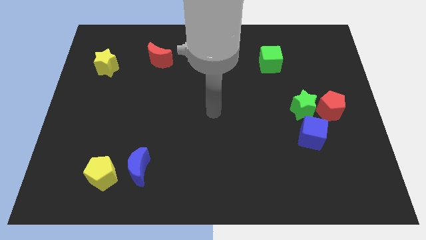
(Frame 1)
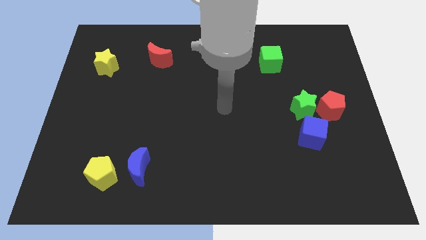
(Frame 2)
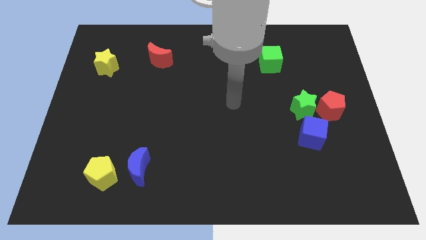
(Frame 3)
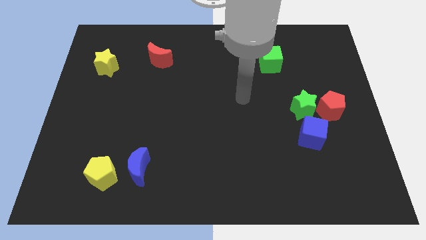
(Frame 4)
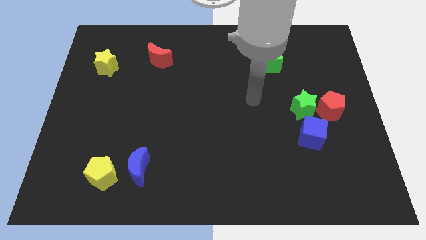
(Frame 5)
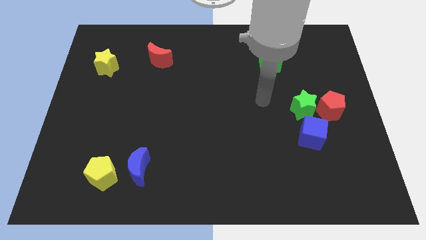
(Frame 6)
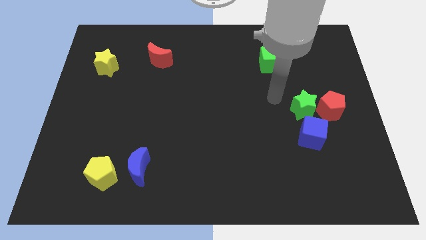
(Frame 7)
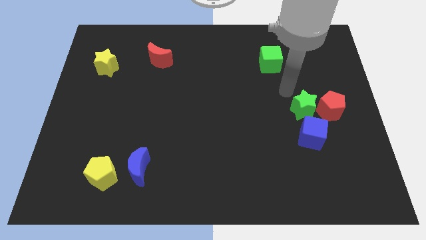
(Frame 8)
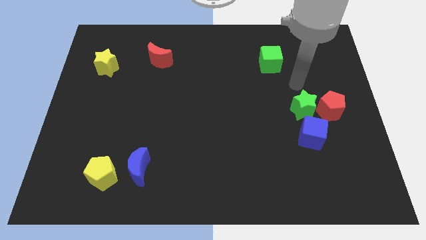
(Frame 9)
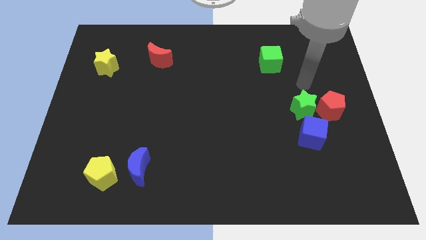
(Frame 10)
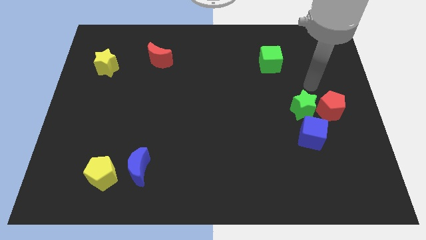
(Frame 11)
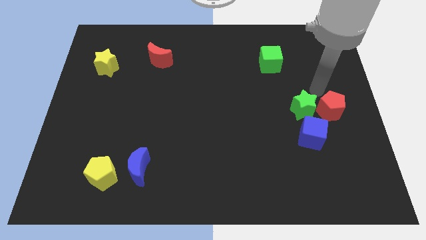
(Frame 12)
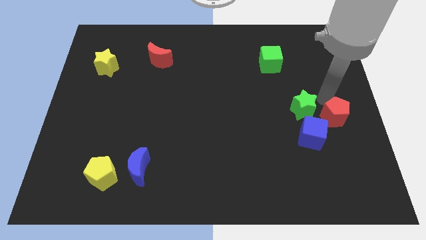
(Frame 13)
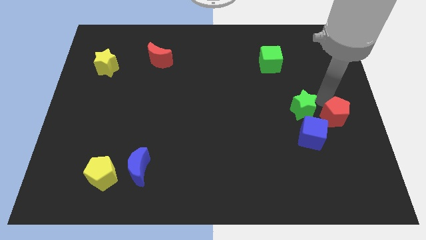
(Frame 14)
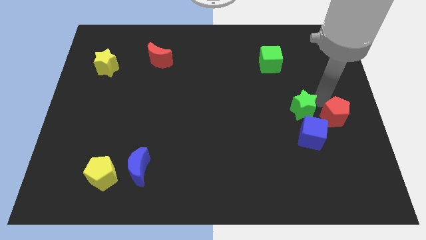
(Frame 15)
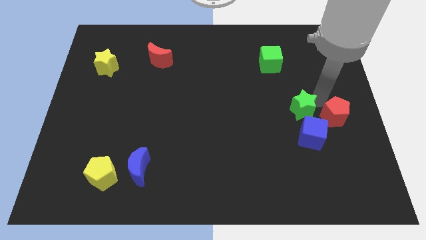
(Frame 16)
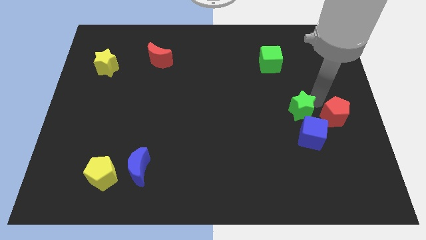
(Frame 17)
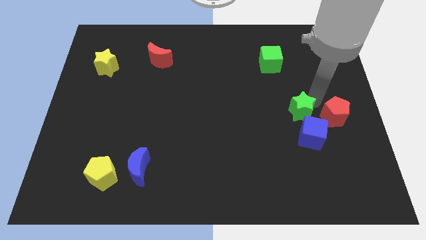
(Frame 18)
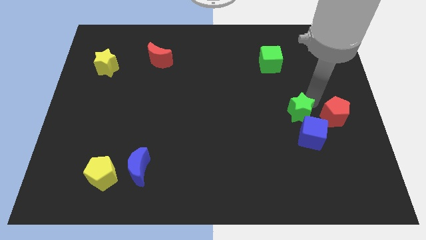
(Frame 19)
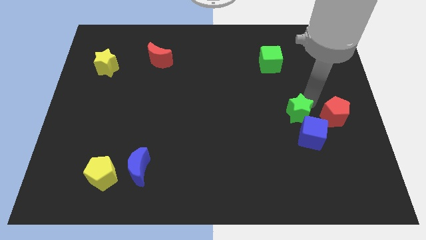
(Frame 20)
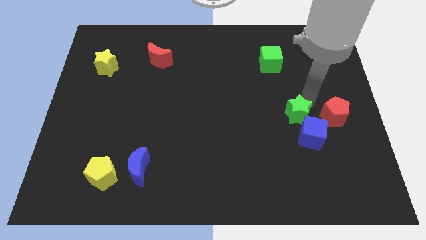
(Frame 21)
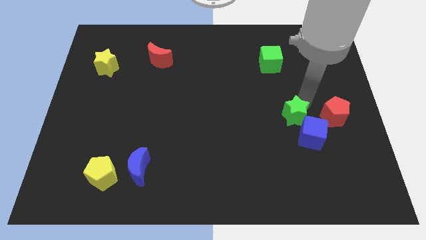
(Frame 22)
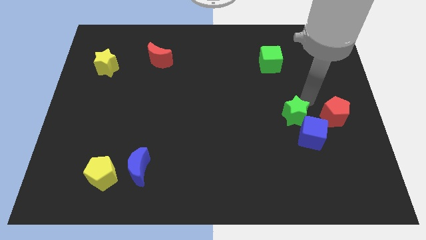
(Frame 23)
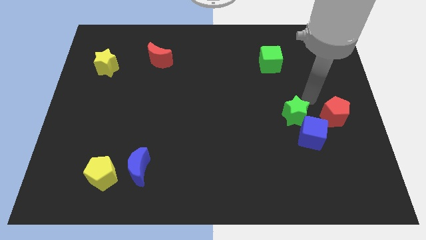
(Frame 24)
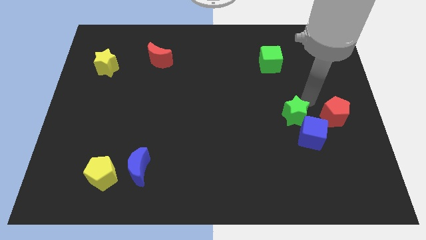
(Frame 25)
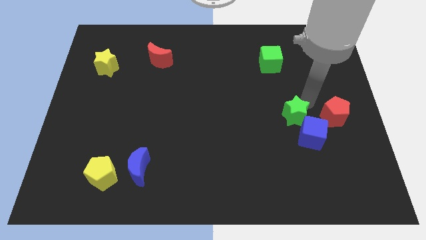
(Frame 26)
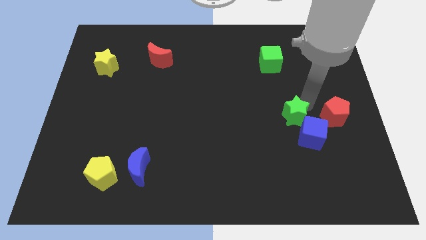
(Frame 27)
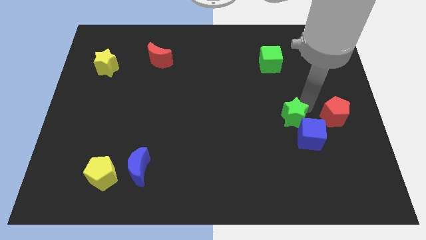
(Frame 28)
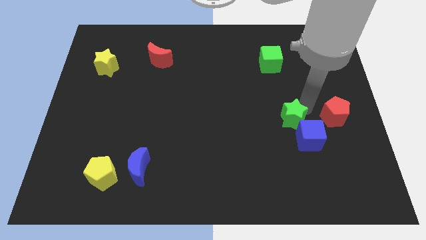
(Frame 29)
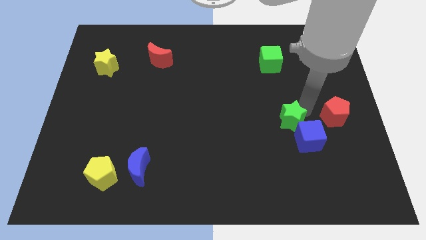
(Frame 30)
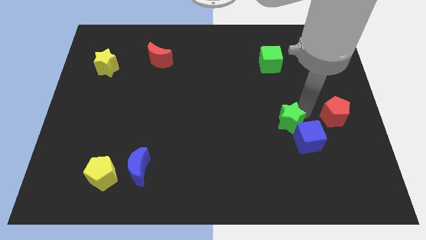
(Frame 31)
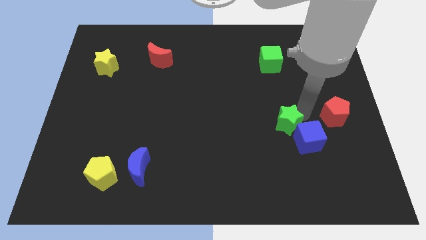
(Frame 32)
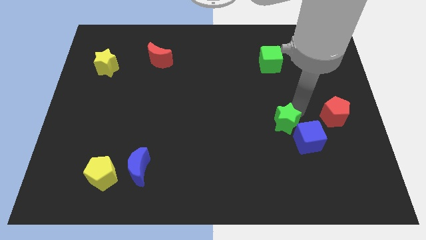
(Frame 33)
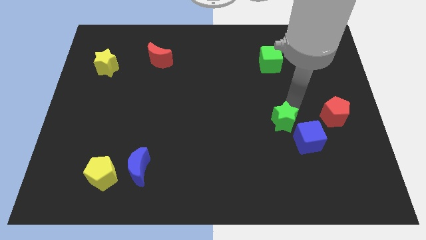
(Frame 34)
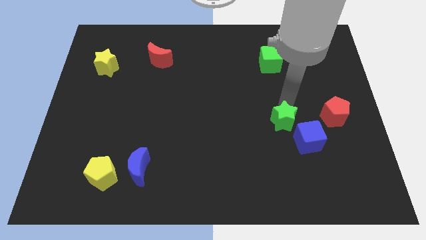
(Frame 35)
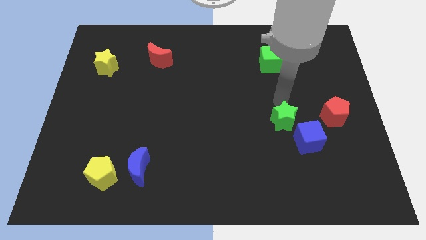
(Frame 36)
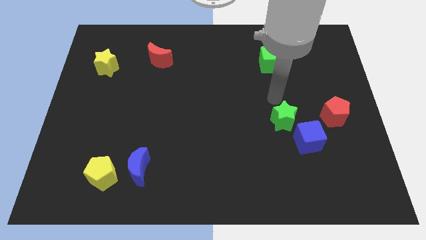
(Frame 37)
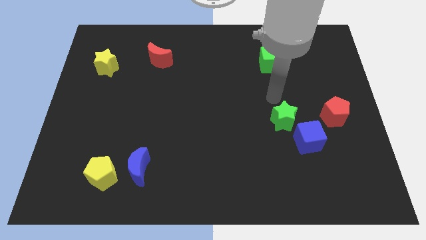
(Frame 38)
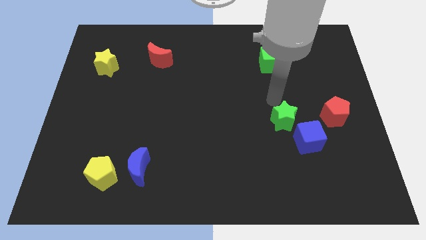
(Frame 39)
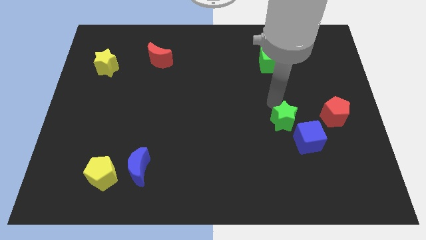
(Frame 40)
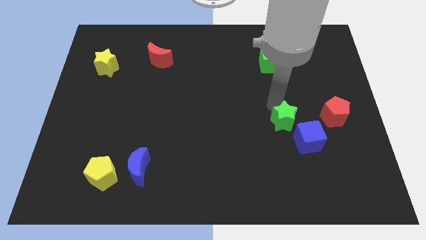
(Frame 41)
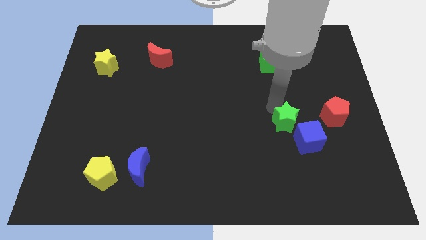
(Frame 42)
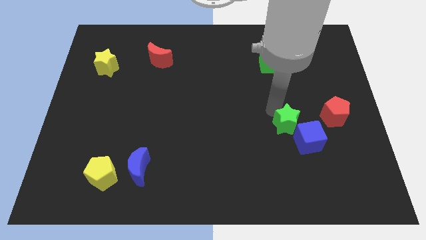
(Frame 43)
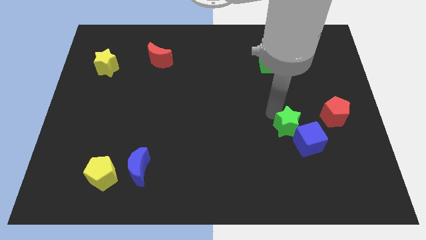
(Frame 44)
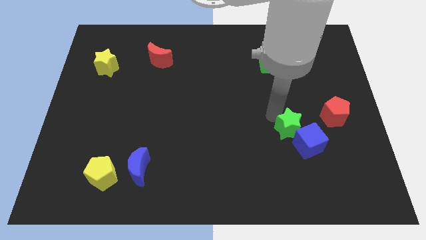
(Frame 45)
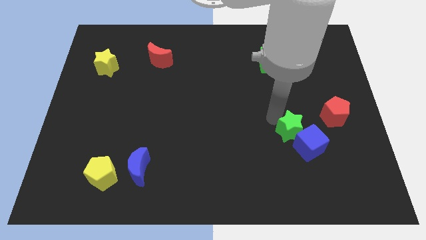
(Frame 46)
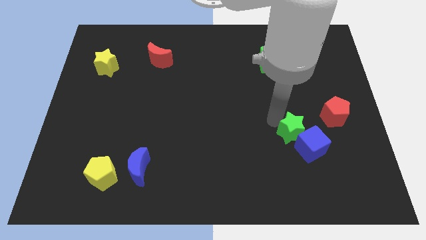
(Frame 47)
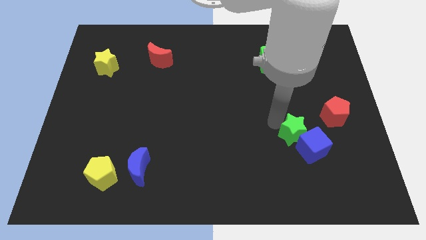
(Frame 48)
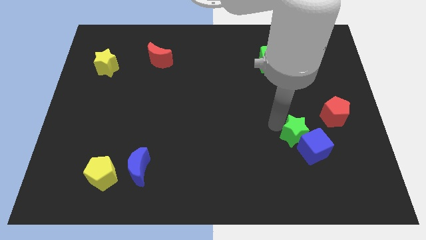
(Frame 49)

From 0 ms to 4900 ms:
move the green star downwards a little bit

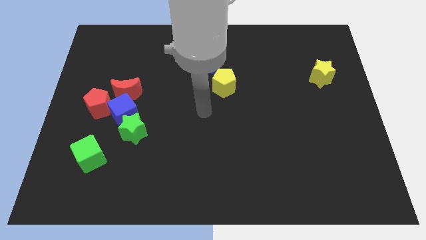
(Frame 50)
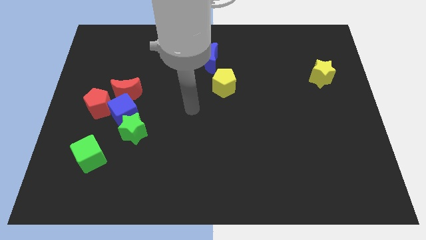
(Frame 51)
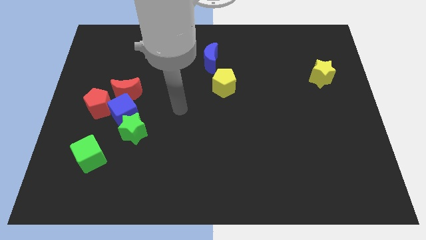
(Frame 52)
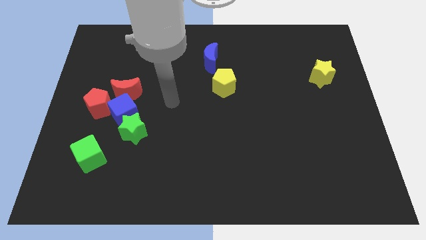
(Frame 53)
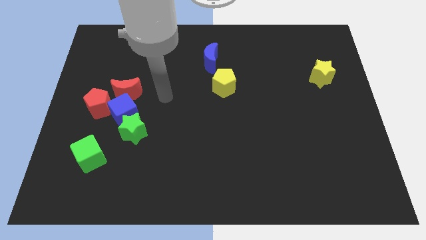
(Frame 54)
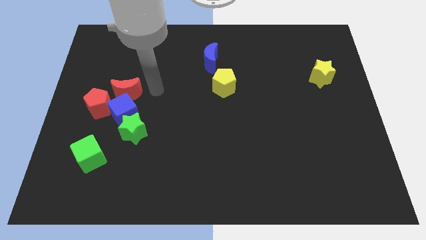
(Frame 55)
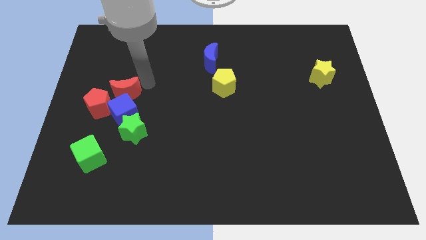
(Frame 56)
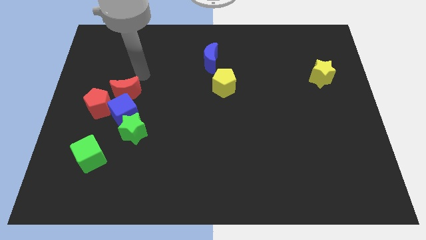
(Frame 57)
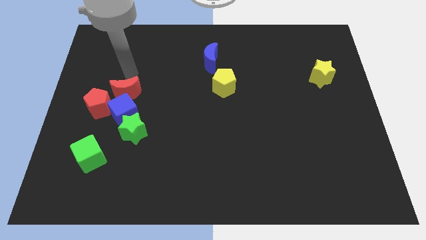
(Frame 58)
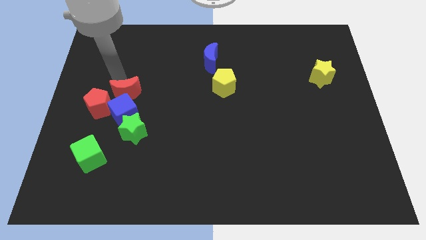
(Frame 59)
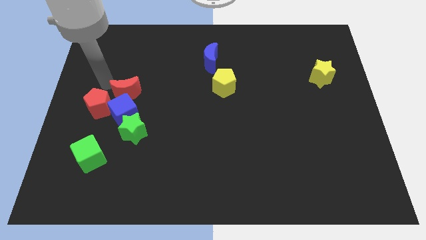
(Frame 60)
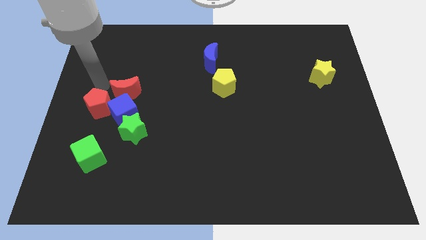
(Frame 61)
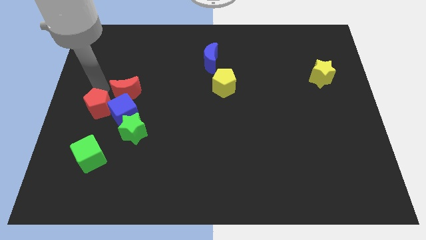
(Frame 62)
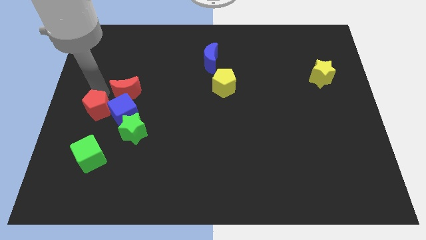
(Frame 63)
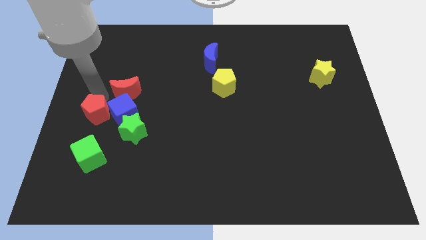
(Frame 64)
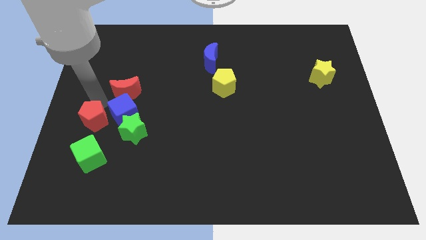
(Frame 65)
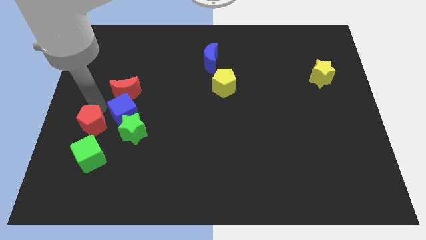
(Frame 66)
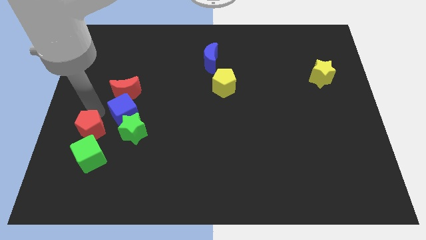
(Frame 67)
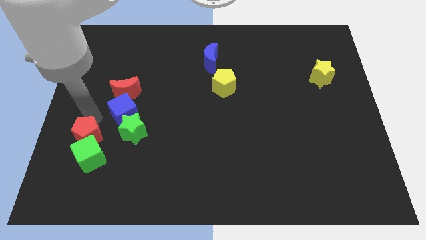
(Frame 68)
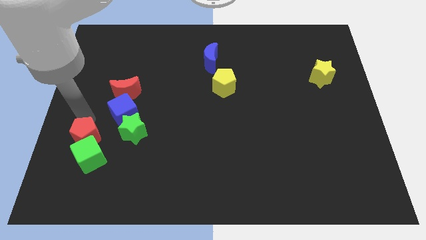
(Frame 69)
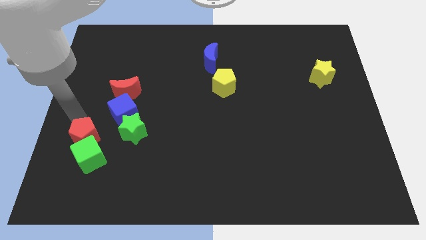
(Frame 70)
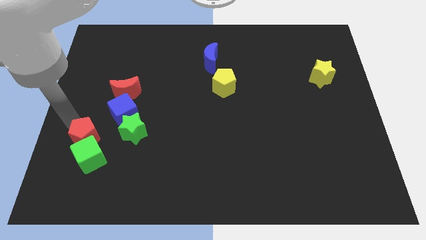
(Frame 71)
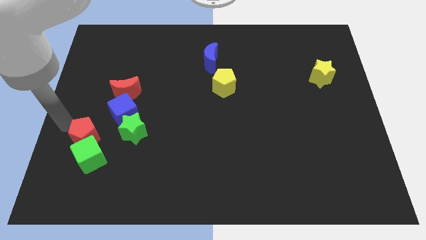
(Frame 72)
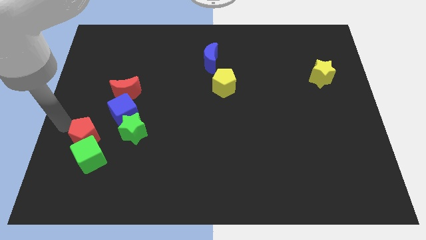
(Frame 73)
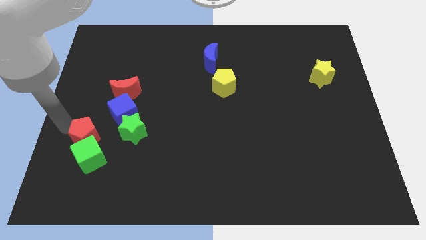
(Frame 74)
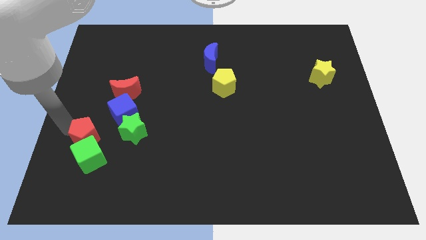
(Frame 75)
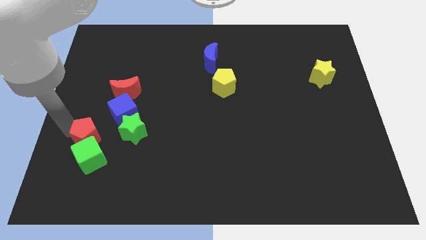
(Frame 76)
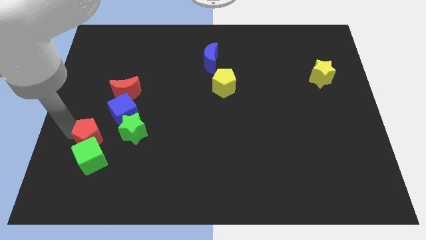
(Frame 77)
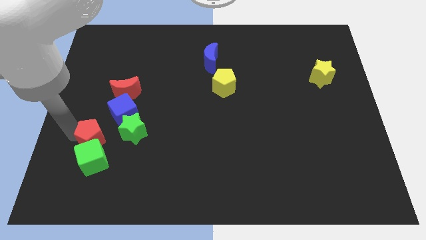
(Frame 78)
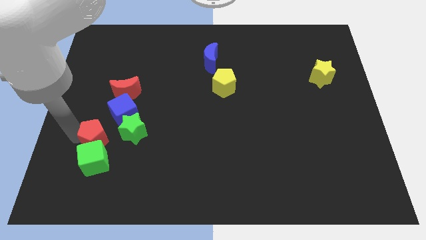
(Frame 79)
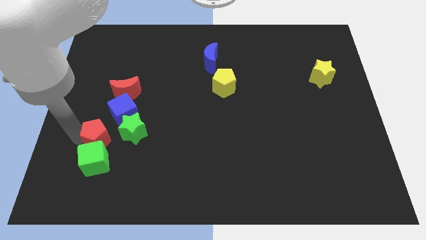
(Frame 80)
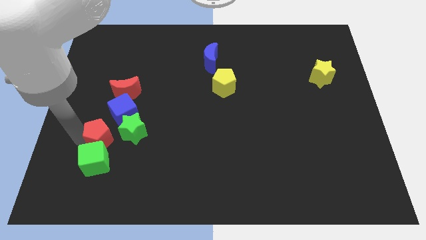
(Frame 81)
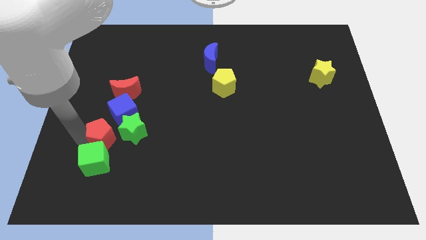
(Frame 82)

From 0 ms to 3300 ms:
move the red pentagon slightly down and to the right
